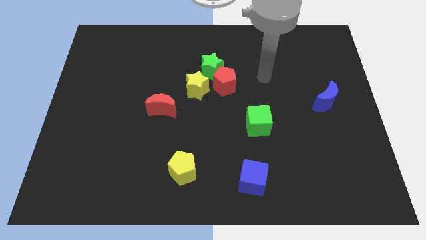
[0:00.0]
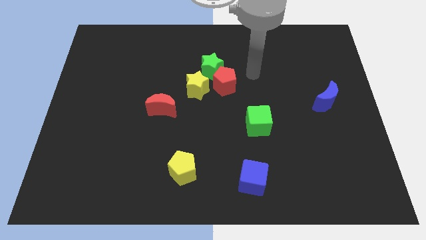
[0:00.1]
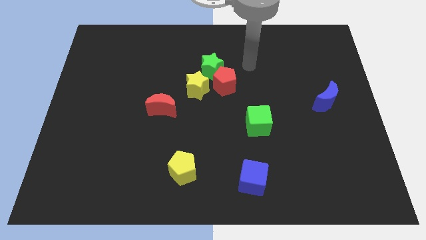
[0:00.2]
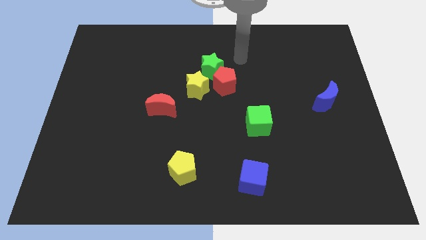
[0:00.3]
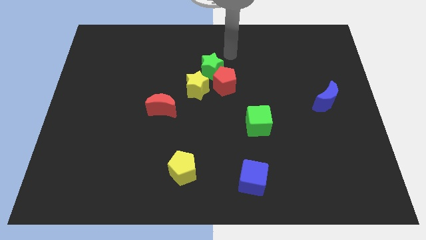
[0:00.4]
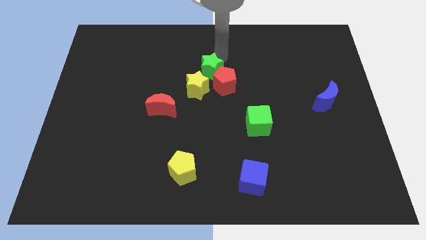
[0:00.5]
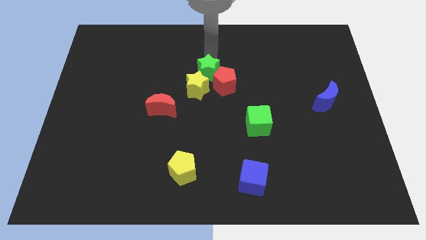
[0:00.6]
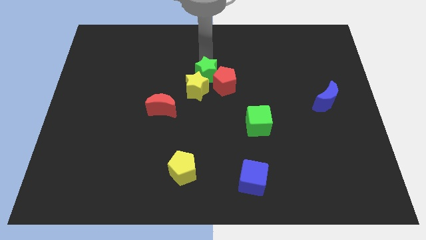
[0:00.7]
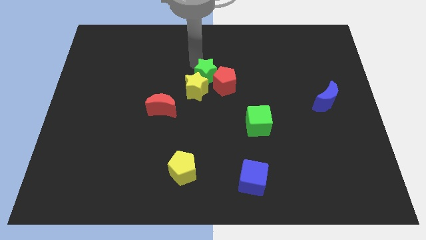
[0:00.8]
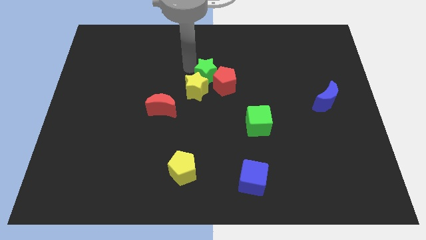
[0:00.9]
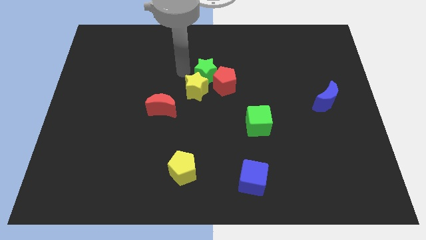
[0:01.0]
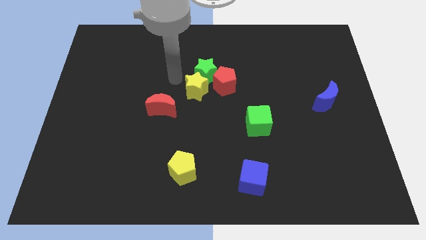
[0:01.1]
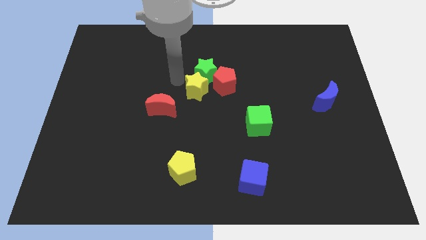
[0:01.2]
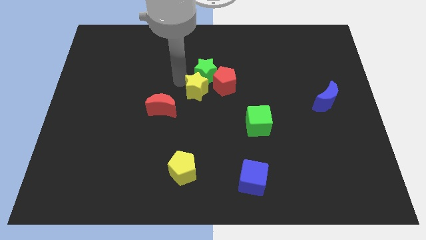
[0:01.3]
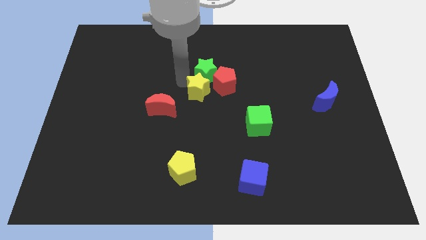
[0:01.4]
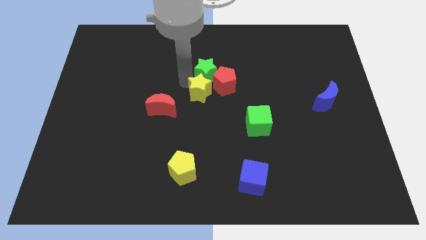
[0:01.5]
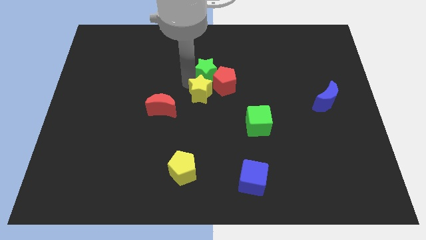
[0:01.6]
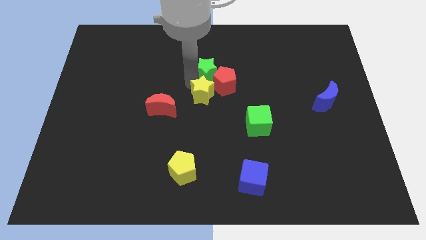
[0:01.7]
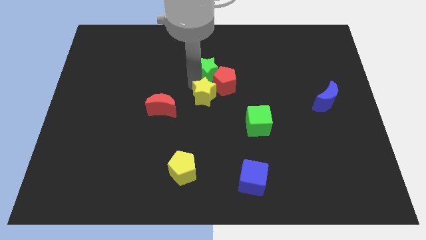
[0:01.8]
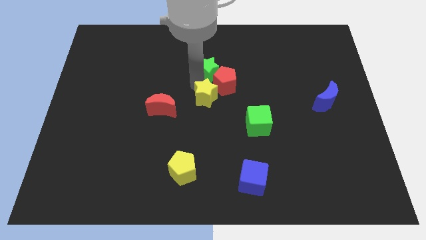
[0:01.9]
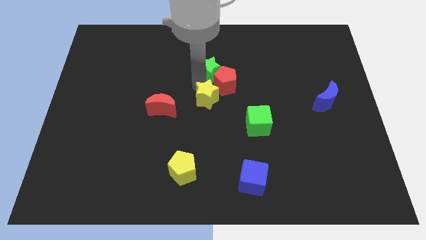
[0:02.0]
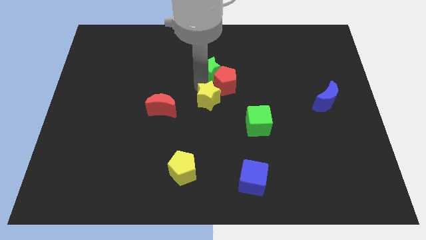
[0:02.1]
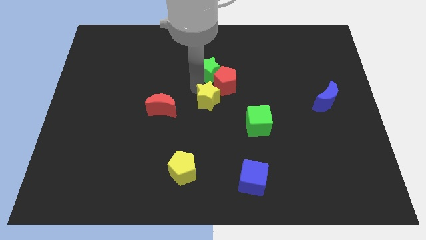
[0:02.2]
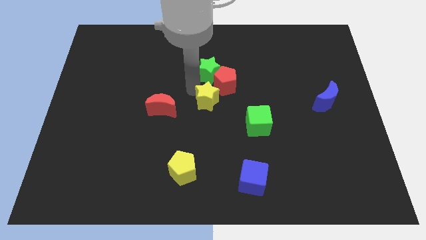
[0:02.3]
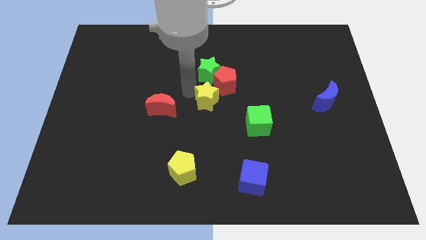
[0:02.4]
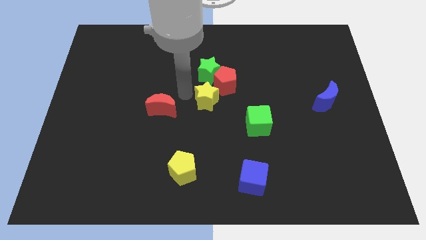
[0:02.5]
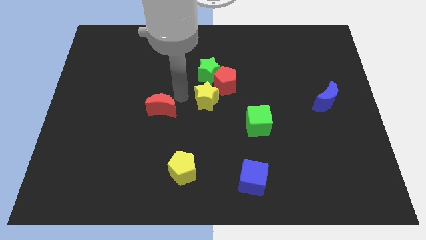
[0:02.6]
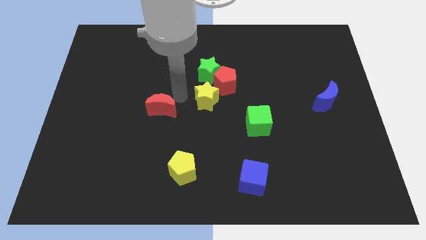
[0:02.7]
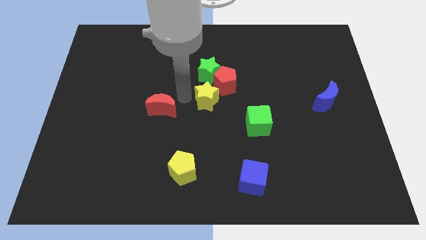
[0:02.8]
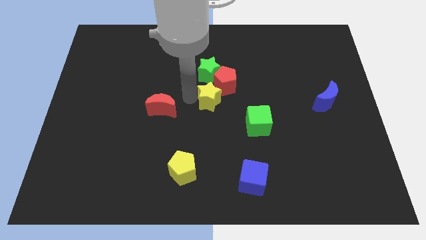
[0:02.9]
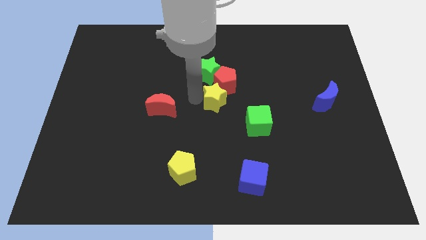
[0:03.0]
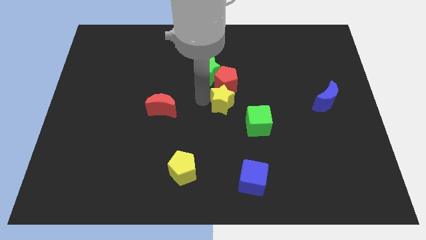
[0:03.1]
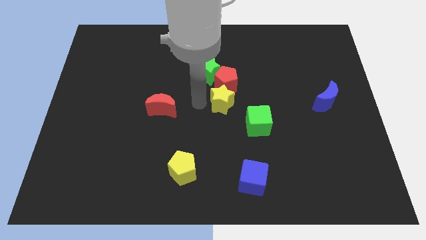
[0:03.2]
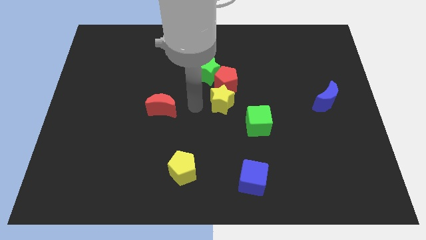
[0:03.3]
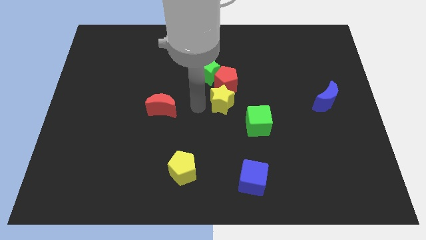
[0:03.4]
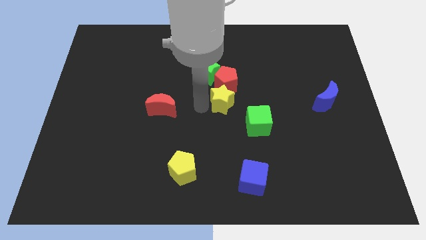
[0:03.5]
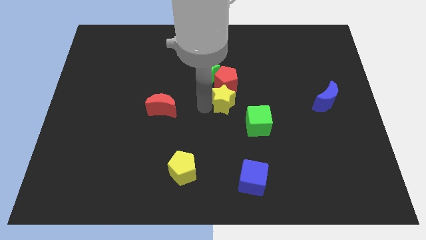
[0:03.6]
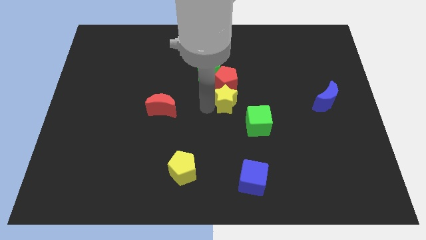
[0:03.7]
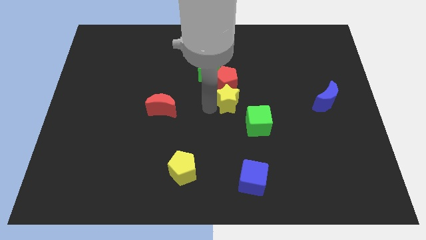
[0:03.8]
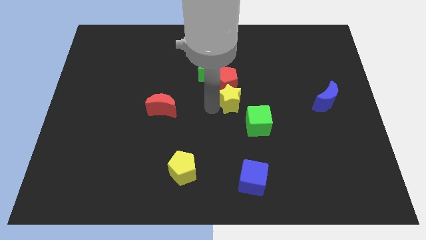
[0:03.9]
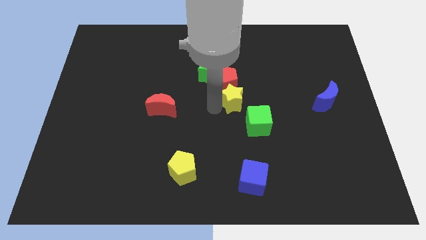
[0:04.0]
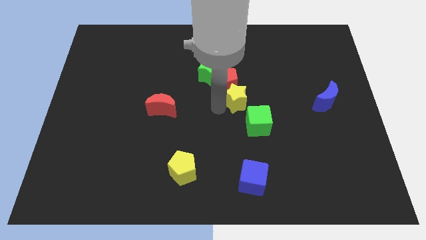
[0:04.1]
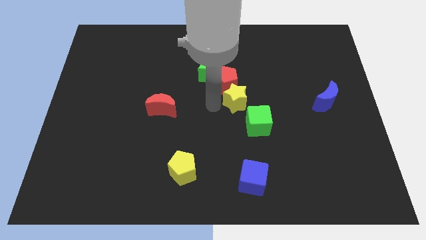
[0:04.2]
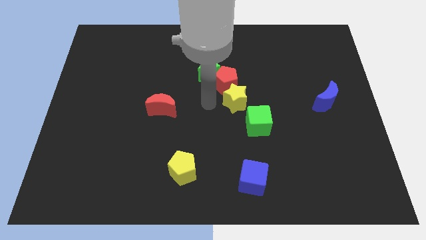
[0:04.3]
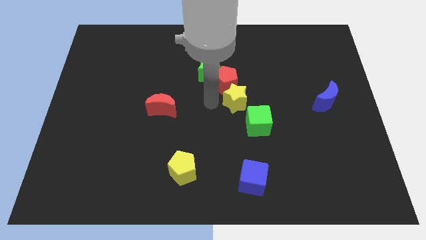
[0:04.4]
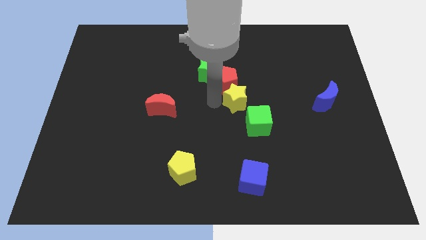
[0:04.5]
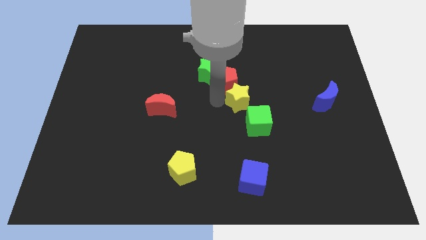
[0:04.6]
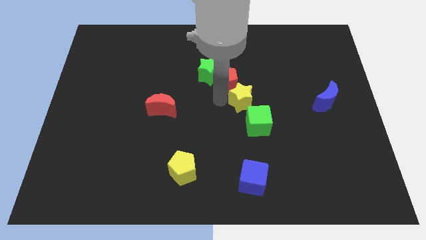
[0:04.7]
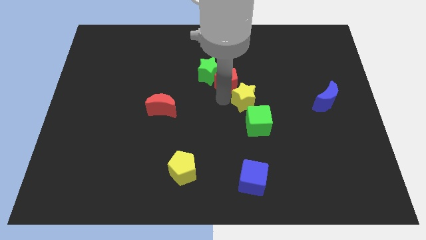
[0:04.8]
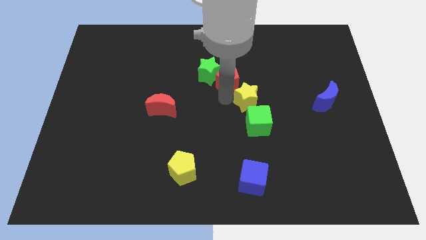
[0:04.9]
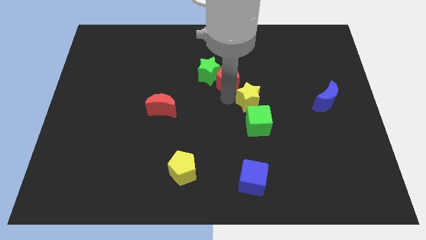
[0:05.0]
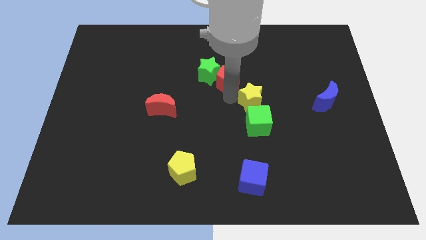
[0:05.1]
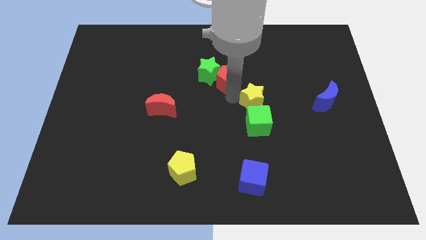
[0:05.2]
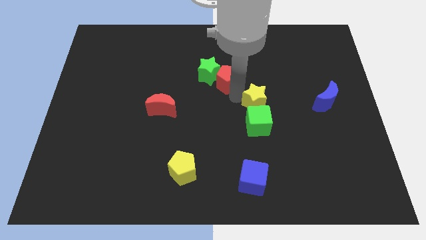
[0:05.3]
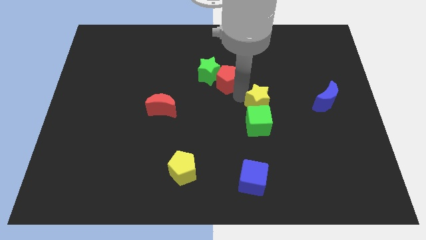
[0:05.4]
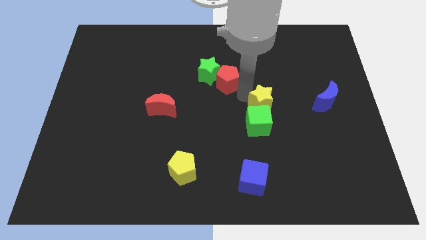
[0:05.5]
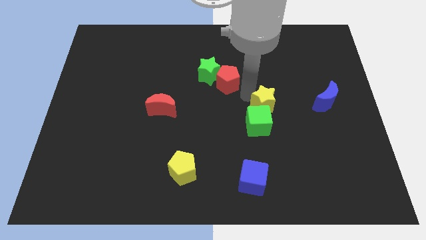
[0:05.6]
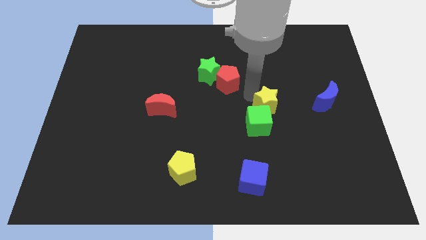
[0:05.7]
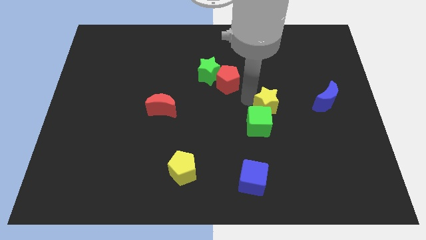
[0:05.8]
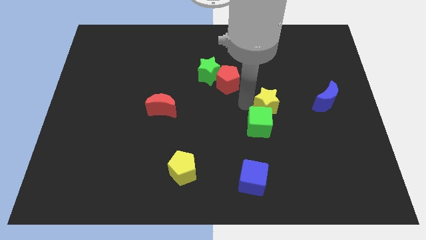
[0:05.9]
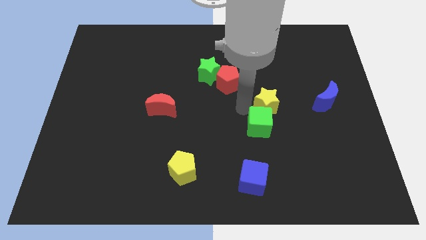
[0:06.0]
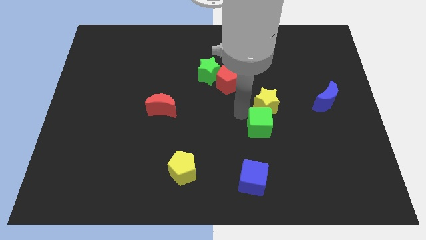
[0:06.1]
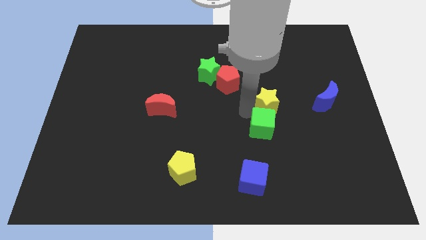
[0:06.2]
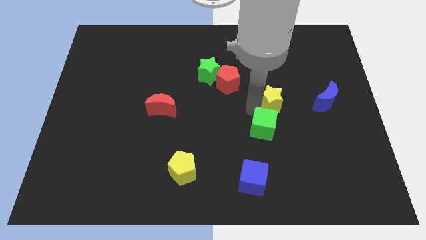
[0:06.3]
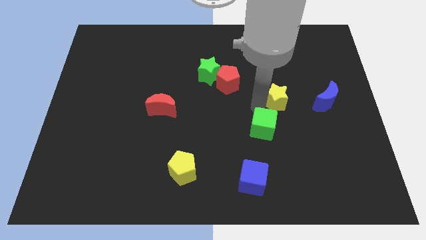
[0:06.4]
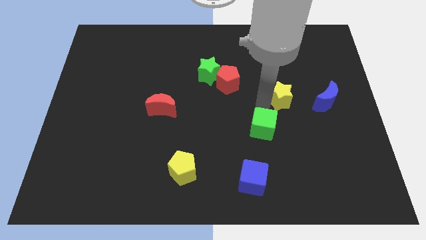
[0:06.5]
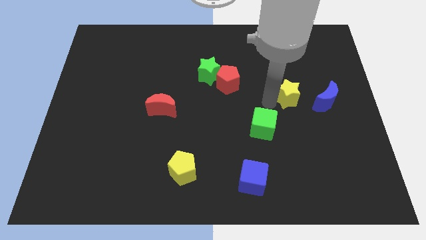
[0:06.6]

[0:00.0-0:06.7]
move the yellow star to the right

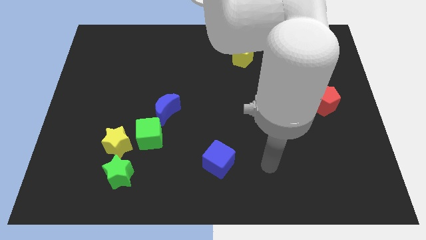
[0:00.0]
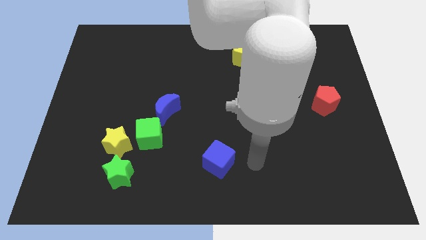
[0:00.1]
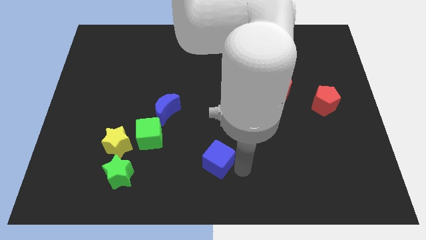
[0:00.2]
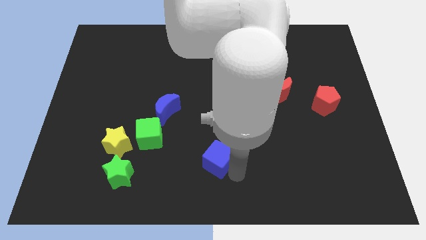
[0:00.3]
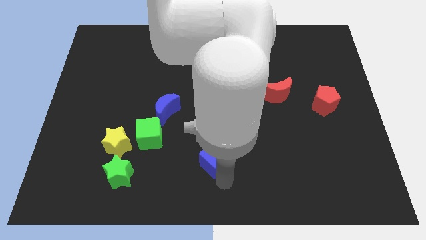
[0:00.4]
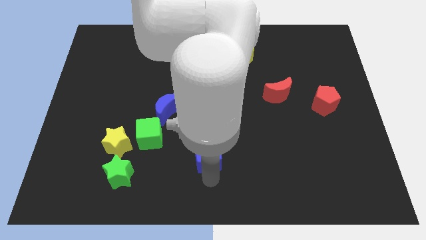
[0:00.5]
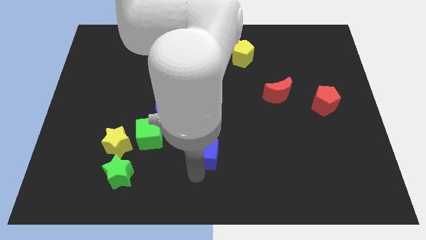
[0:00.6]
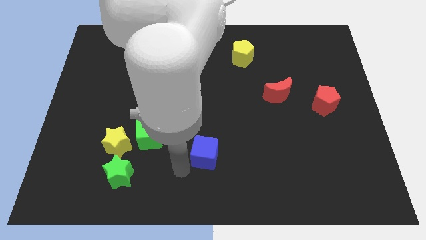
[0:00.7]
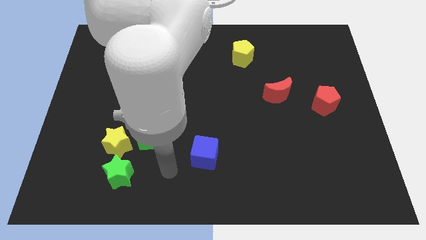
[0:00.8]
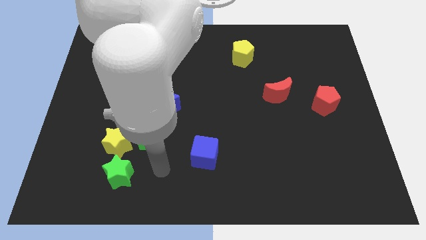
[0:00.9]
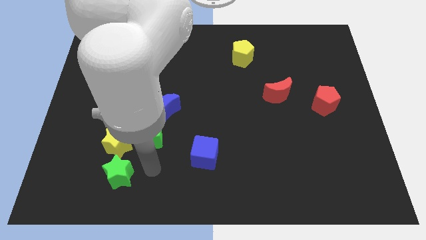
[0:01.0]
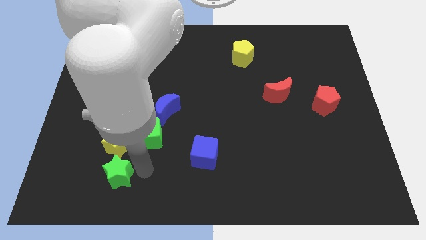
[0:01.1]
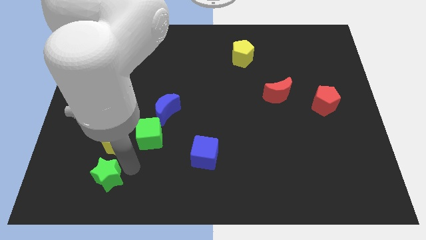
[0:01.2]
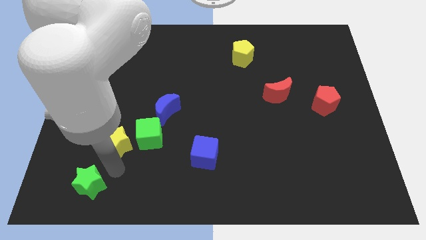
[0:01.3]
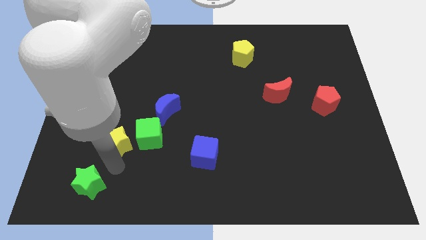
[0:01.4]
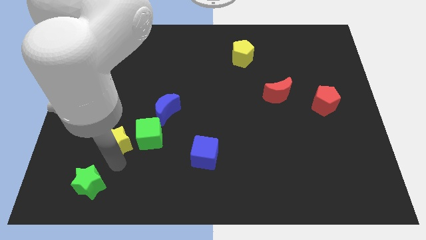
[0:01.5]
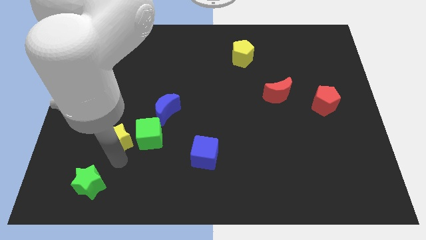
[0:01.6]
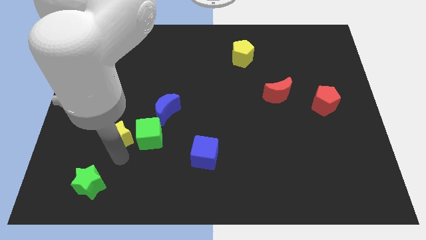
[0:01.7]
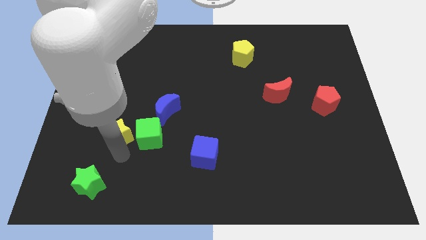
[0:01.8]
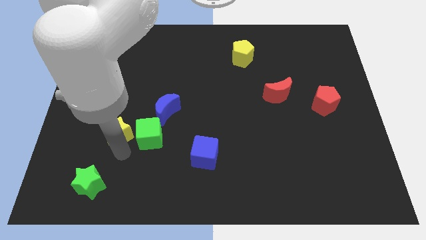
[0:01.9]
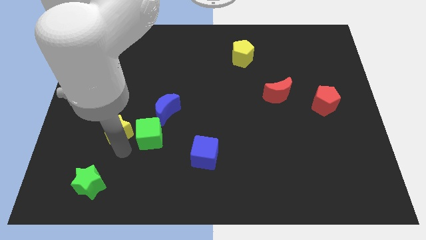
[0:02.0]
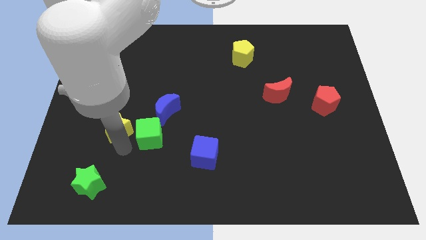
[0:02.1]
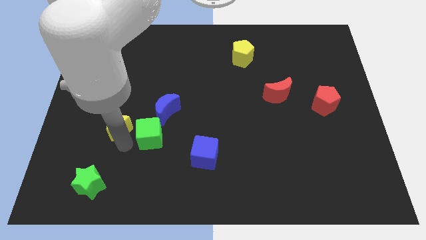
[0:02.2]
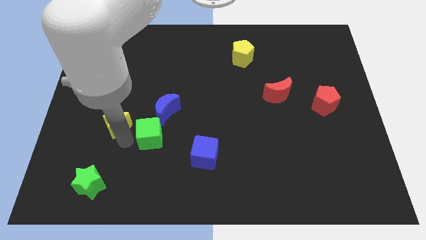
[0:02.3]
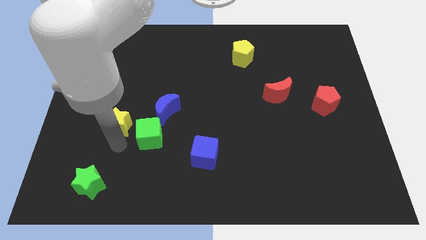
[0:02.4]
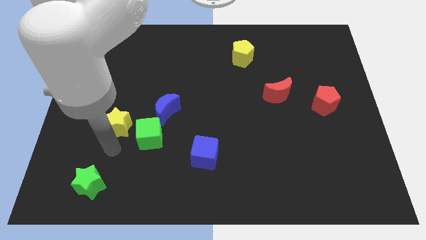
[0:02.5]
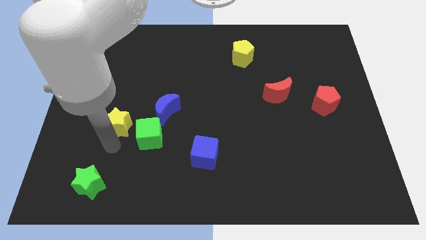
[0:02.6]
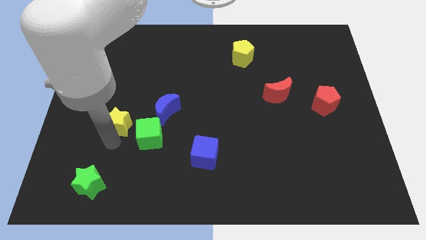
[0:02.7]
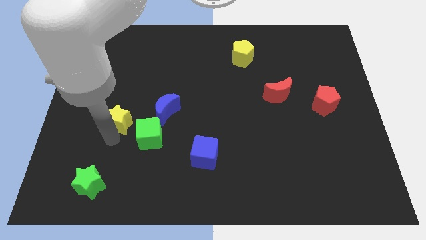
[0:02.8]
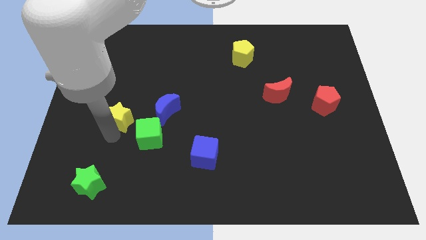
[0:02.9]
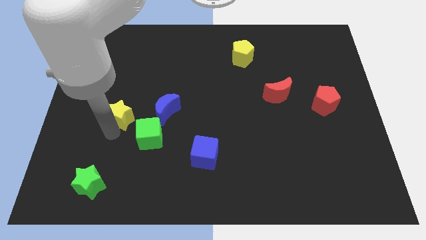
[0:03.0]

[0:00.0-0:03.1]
push the yellow star upwards a little bit
